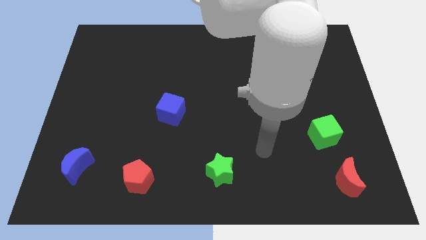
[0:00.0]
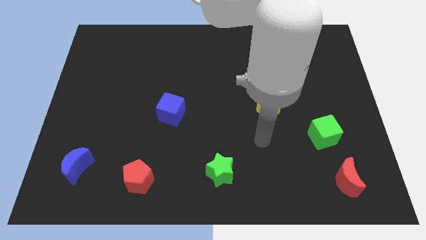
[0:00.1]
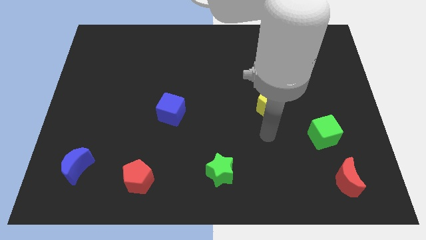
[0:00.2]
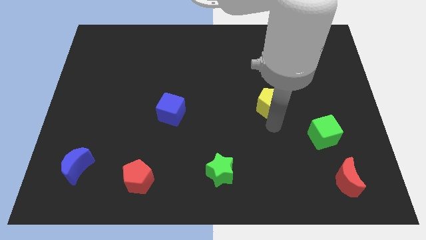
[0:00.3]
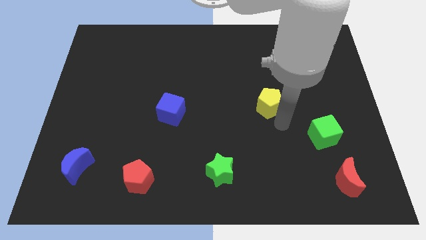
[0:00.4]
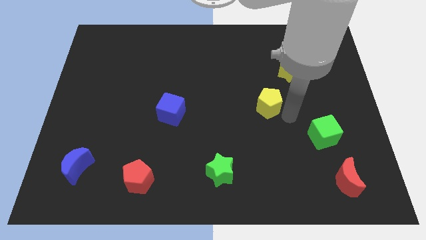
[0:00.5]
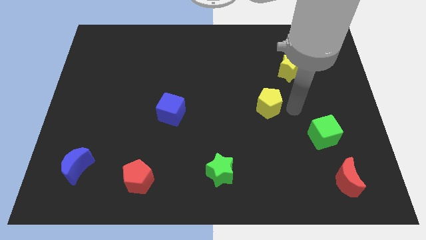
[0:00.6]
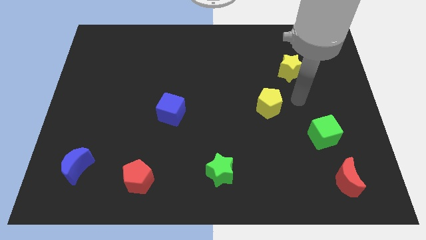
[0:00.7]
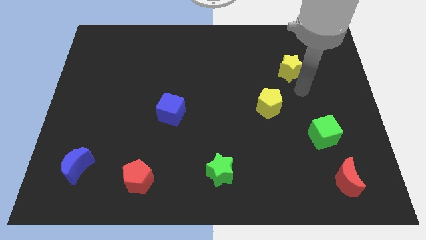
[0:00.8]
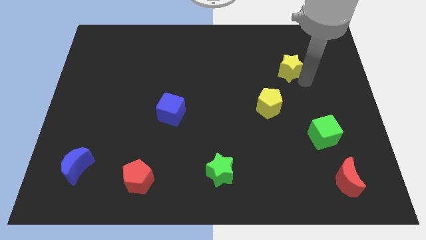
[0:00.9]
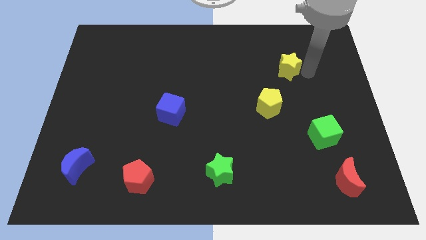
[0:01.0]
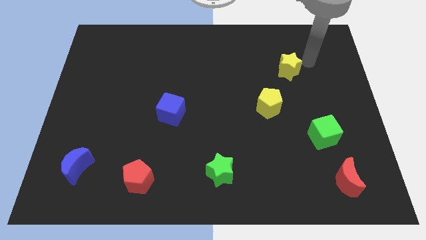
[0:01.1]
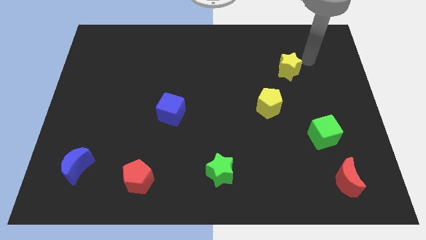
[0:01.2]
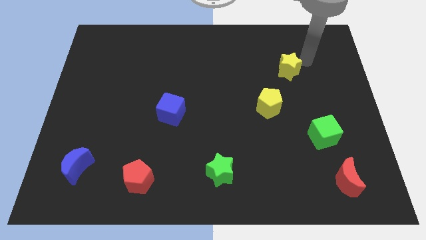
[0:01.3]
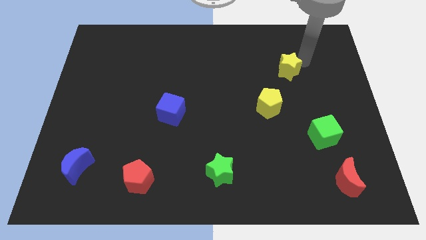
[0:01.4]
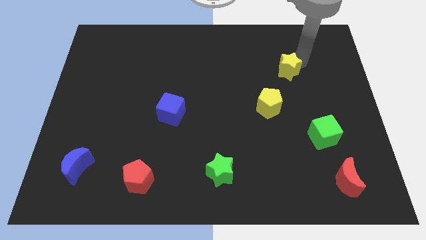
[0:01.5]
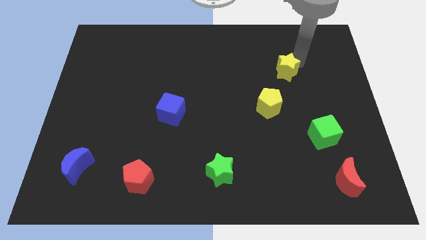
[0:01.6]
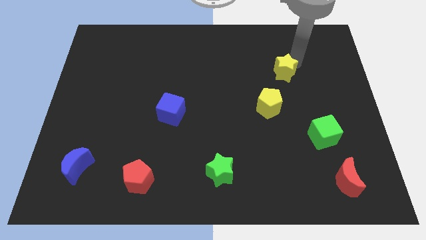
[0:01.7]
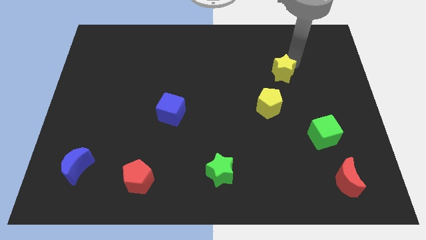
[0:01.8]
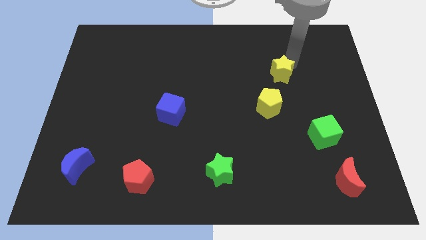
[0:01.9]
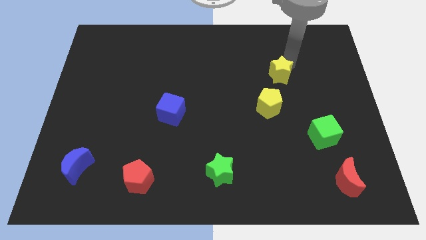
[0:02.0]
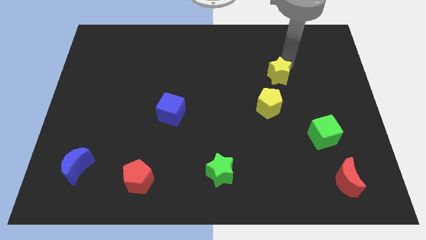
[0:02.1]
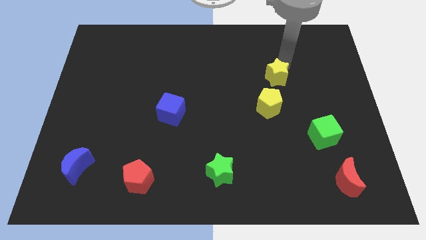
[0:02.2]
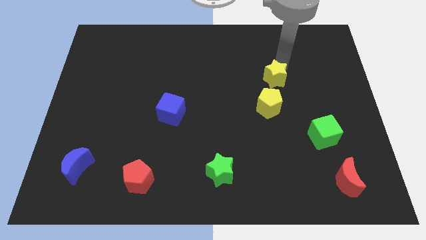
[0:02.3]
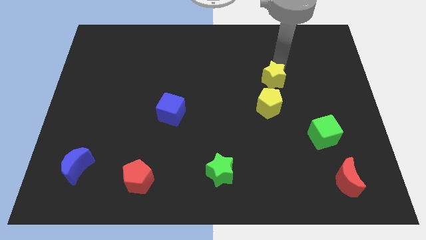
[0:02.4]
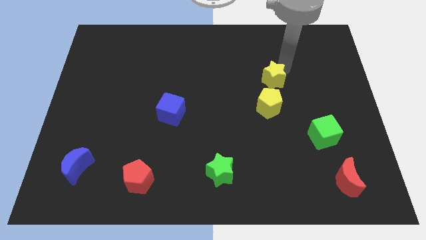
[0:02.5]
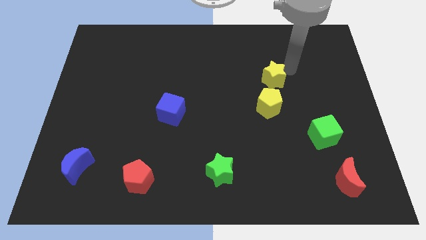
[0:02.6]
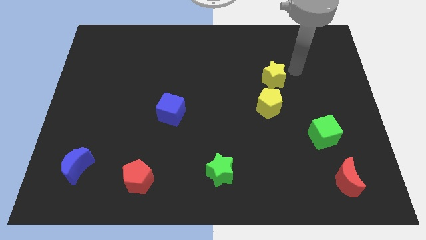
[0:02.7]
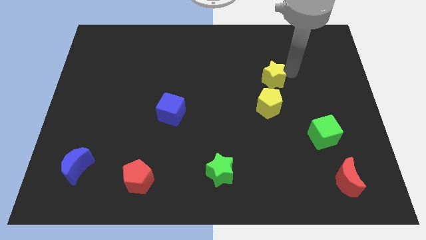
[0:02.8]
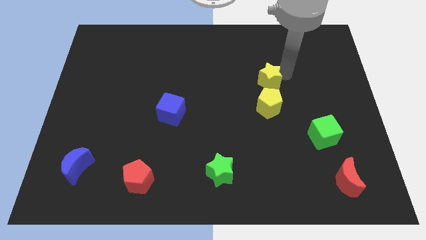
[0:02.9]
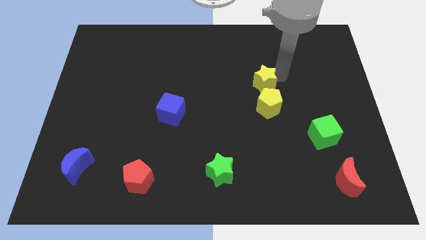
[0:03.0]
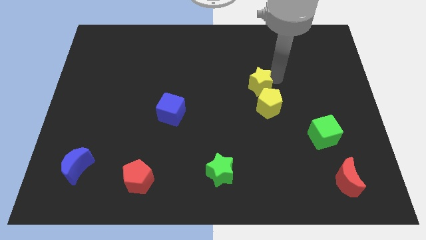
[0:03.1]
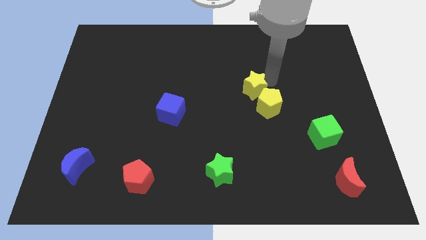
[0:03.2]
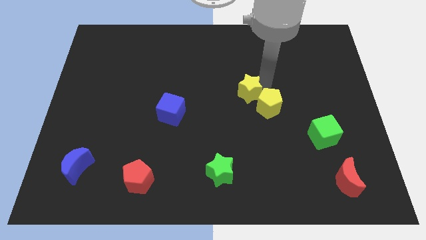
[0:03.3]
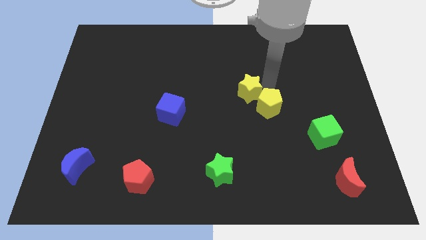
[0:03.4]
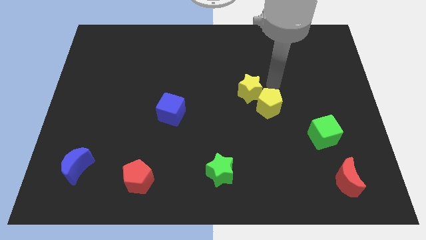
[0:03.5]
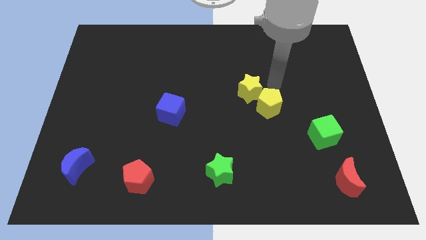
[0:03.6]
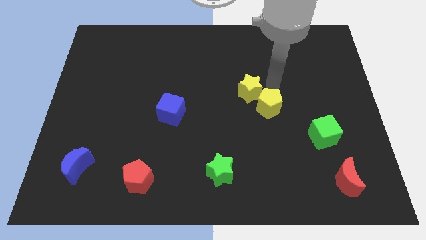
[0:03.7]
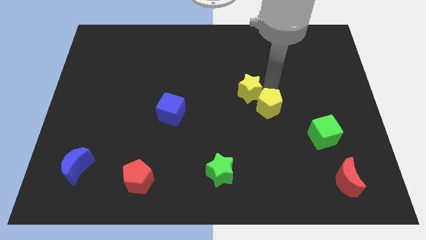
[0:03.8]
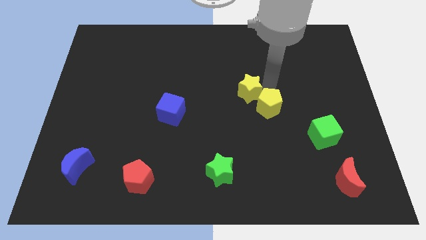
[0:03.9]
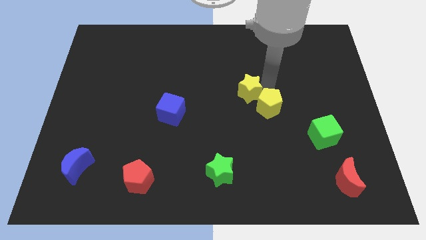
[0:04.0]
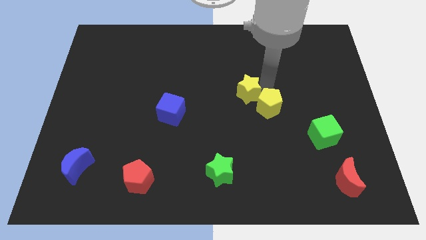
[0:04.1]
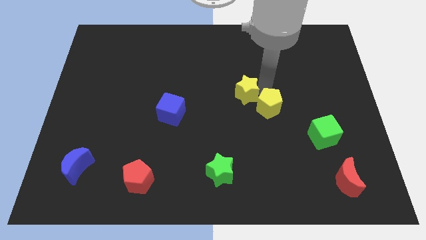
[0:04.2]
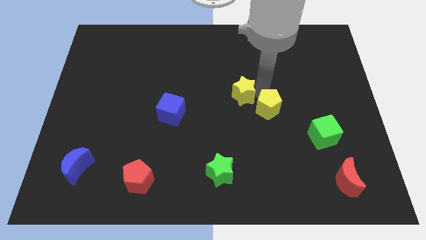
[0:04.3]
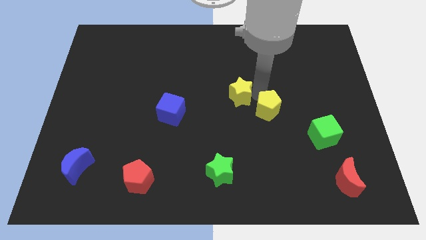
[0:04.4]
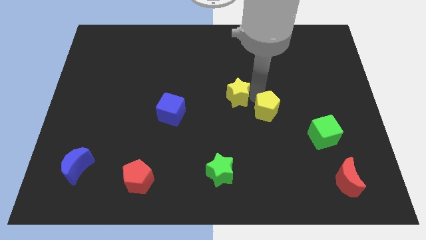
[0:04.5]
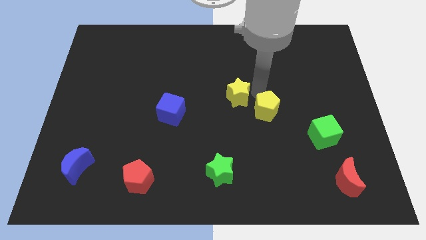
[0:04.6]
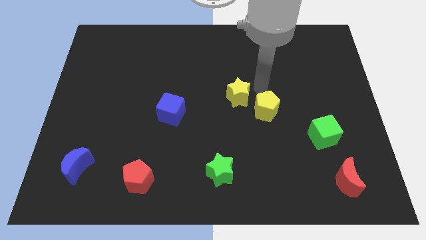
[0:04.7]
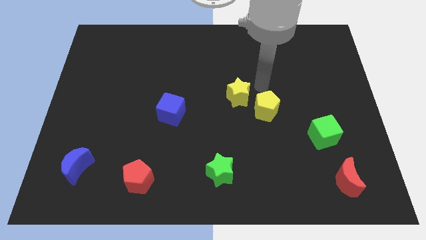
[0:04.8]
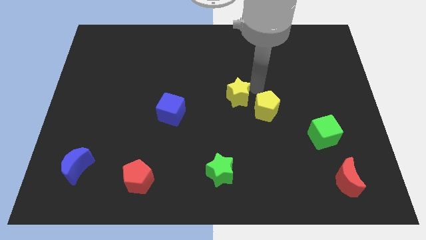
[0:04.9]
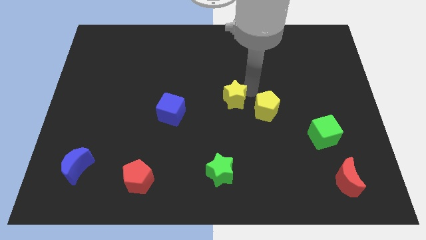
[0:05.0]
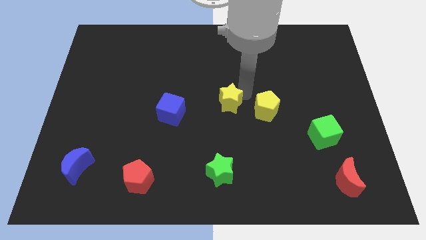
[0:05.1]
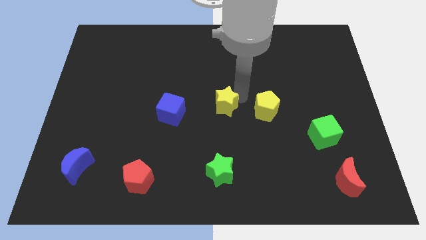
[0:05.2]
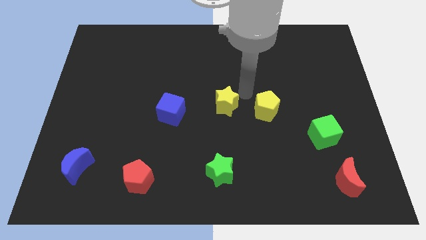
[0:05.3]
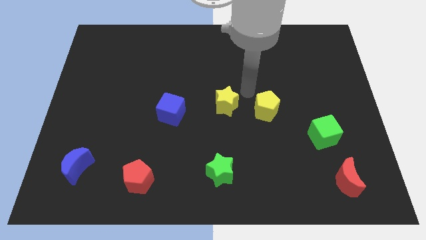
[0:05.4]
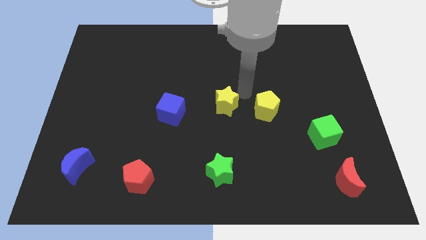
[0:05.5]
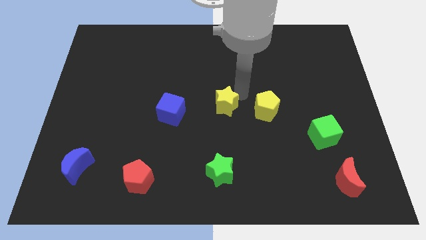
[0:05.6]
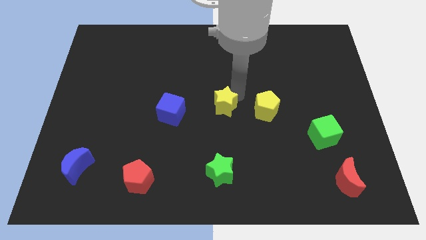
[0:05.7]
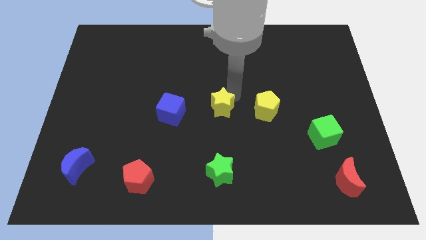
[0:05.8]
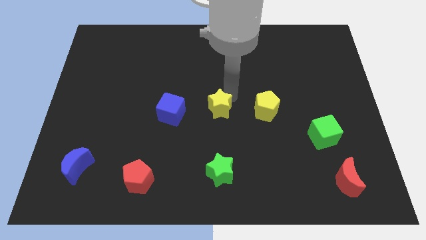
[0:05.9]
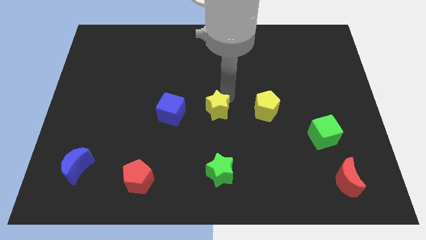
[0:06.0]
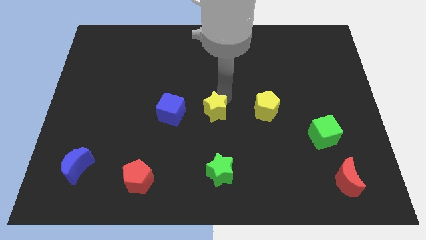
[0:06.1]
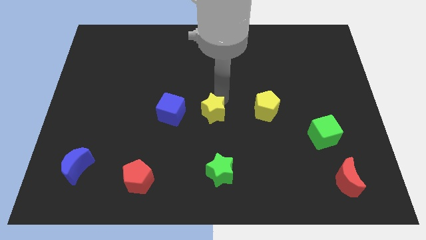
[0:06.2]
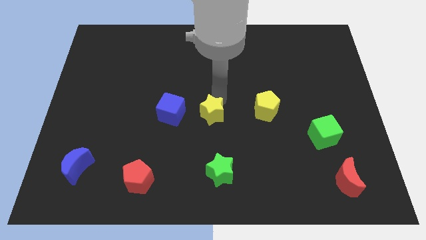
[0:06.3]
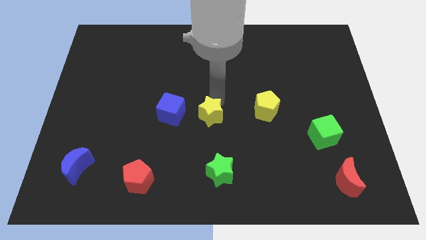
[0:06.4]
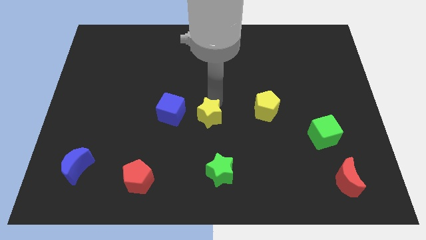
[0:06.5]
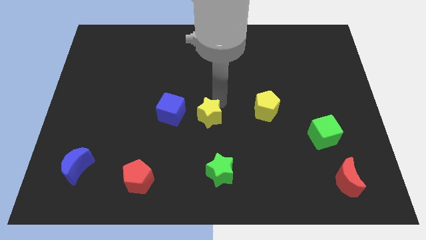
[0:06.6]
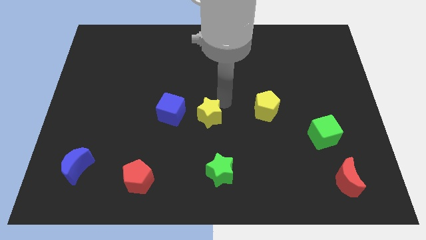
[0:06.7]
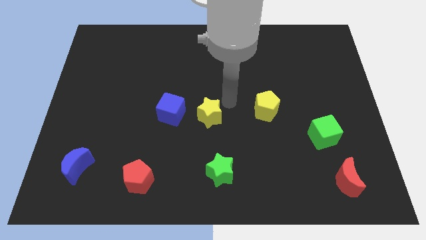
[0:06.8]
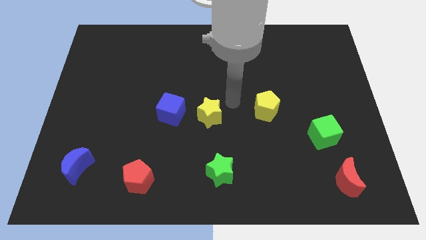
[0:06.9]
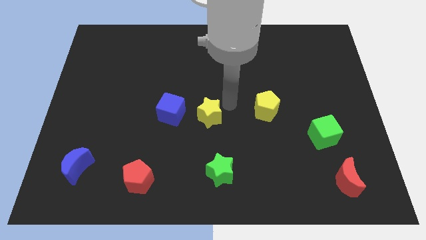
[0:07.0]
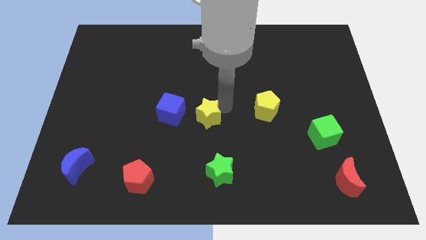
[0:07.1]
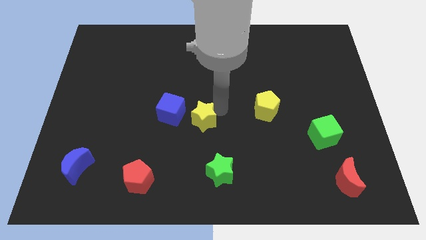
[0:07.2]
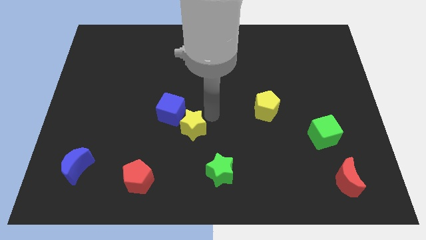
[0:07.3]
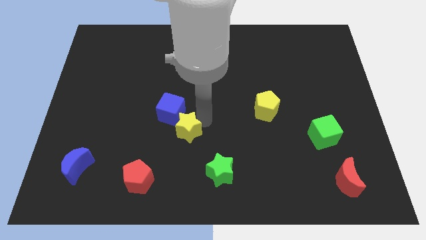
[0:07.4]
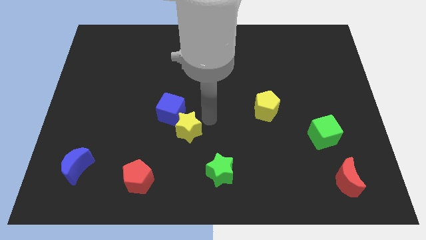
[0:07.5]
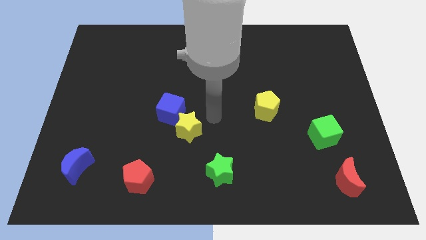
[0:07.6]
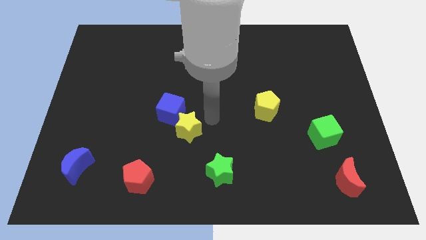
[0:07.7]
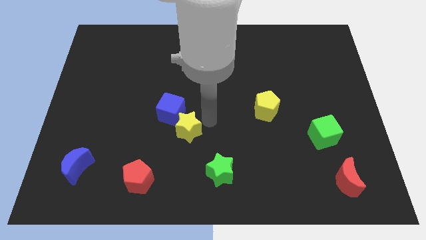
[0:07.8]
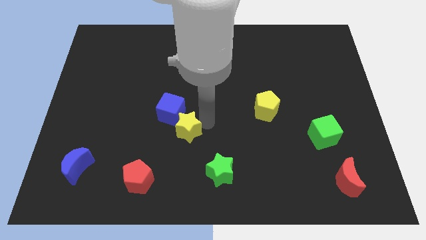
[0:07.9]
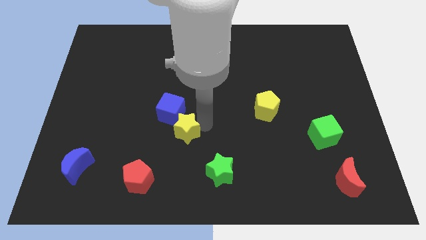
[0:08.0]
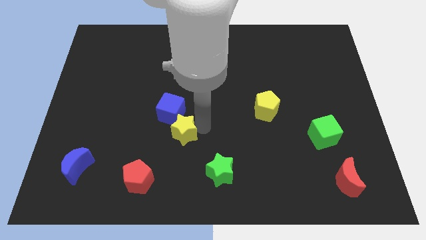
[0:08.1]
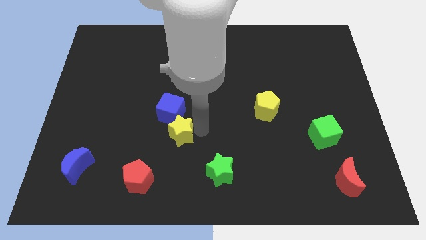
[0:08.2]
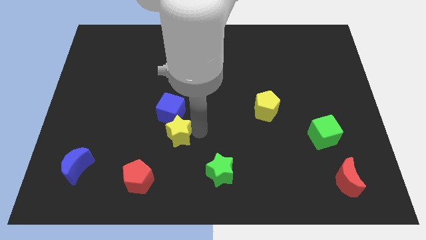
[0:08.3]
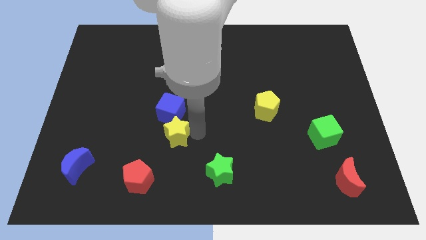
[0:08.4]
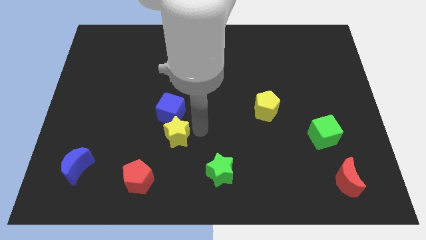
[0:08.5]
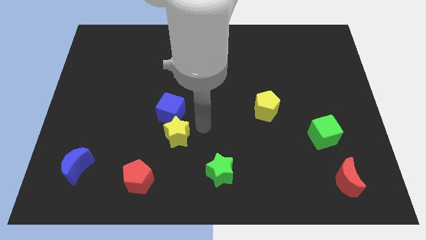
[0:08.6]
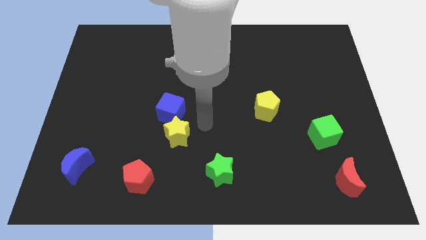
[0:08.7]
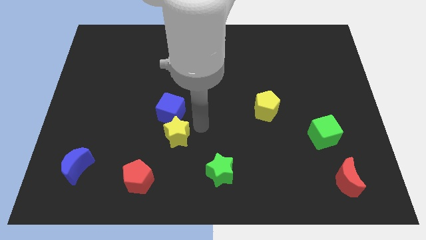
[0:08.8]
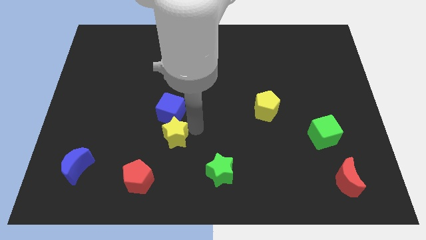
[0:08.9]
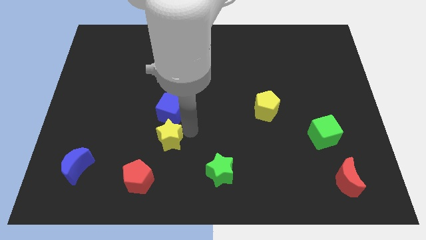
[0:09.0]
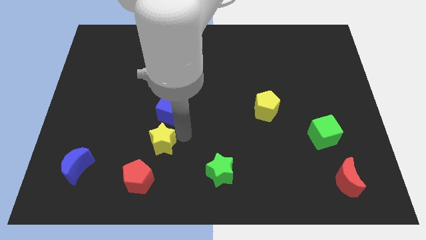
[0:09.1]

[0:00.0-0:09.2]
slide the yellow star to the top side of the red pentagon
